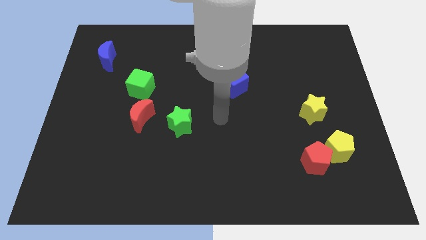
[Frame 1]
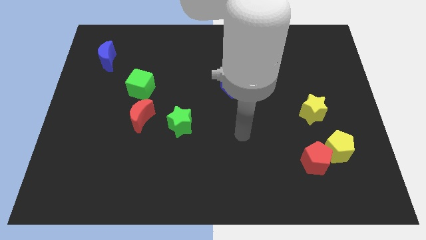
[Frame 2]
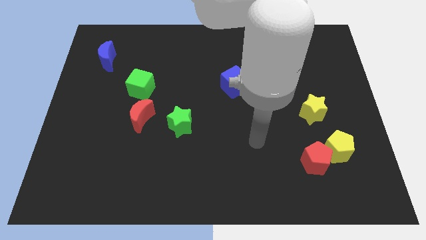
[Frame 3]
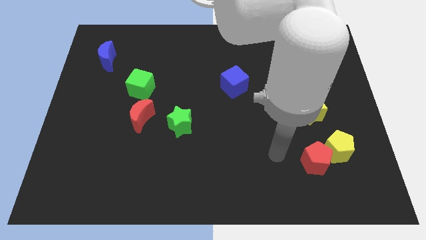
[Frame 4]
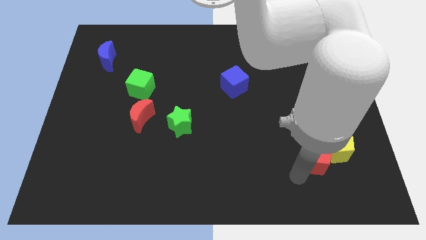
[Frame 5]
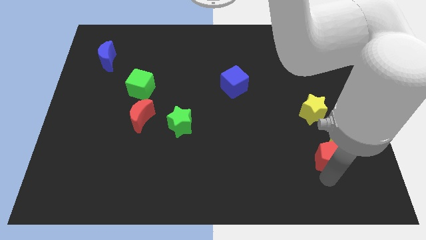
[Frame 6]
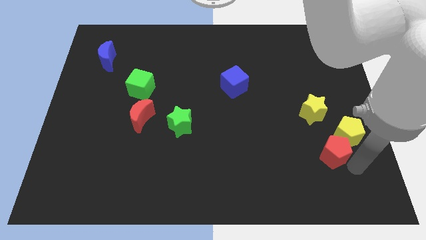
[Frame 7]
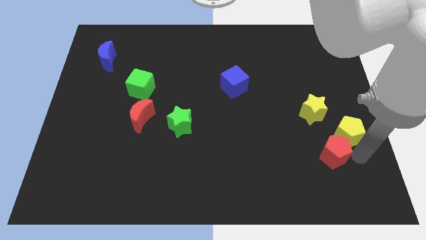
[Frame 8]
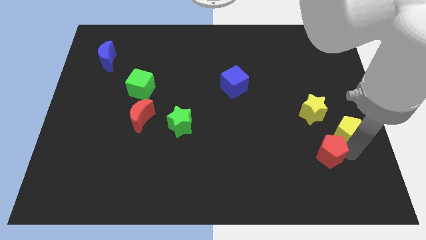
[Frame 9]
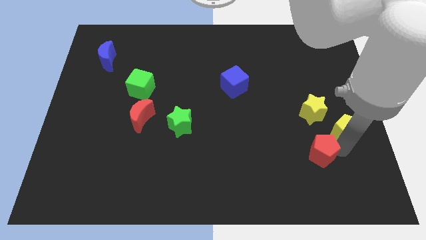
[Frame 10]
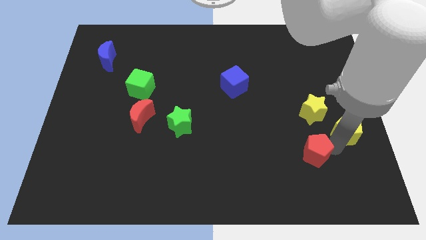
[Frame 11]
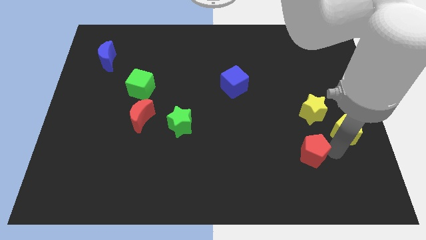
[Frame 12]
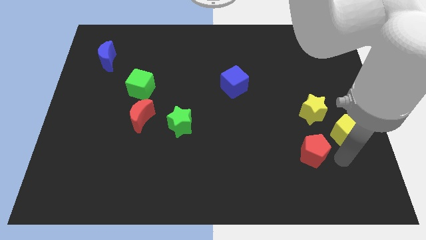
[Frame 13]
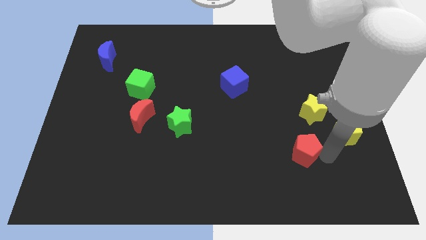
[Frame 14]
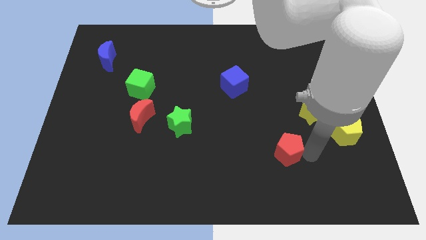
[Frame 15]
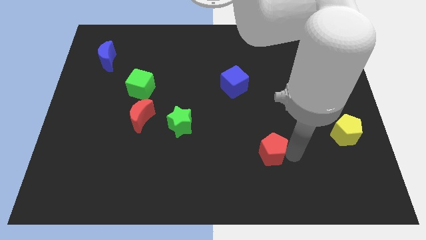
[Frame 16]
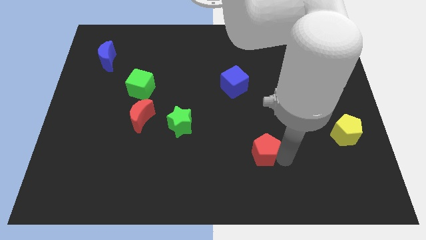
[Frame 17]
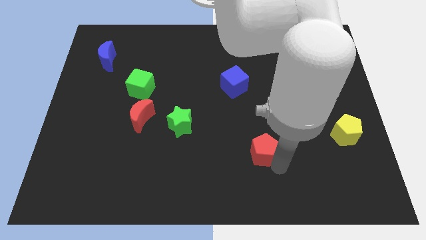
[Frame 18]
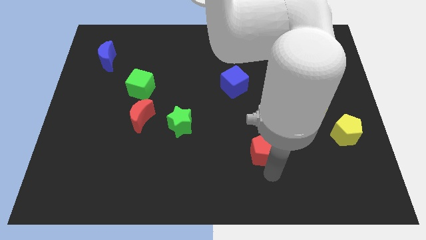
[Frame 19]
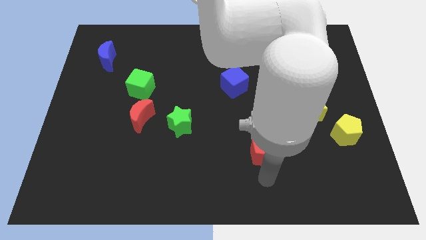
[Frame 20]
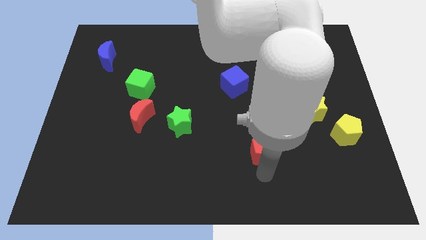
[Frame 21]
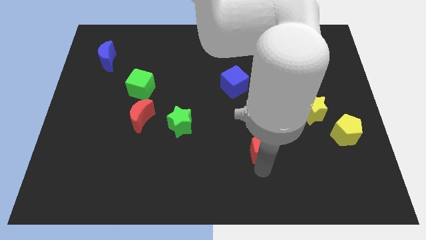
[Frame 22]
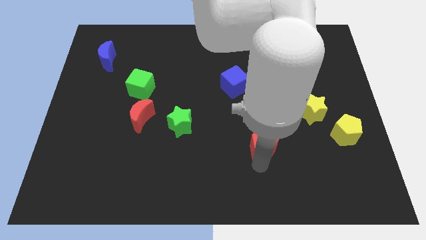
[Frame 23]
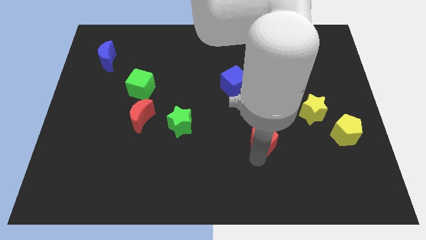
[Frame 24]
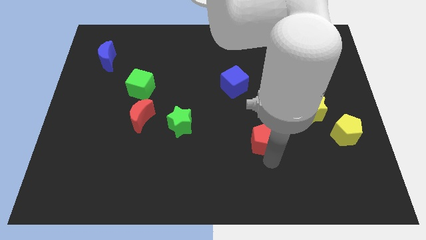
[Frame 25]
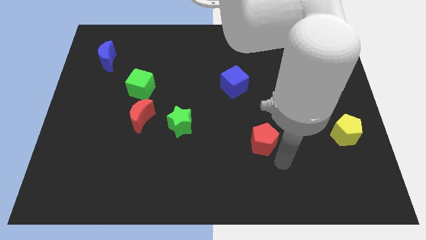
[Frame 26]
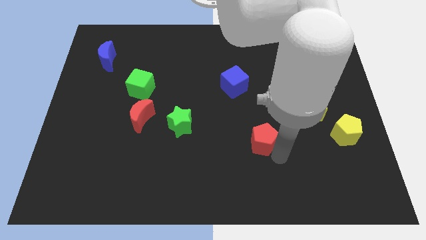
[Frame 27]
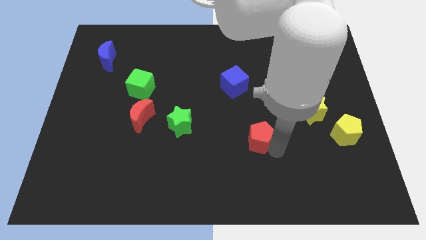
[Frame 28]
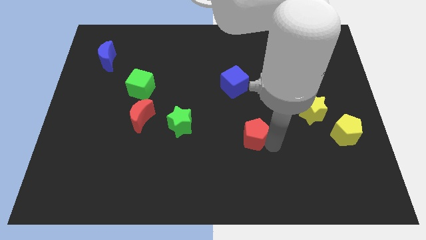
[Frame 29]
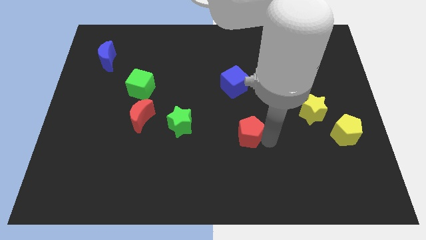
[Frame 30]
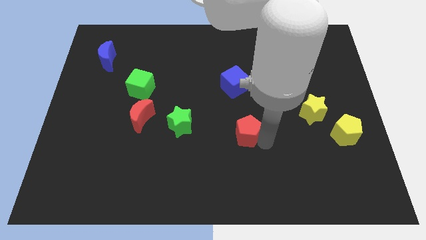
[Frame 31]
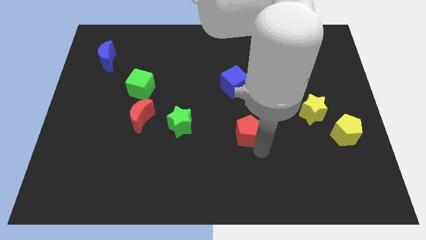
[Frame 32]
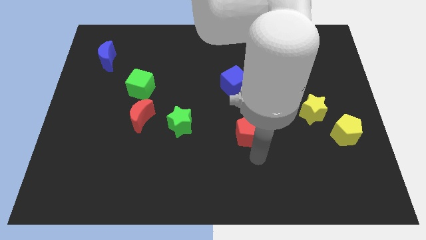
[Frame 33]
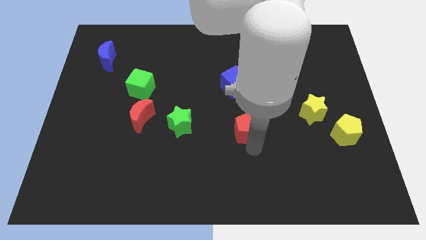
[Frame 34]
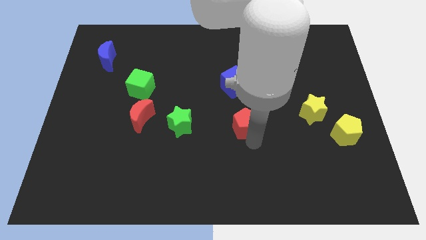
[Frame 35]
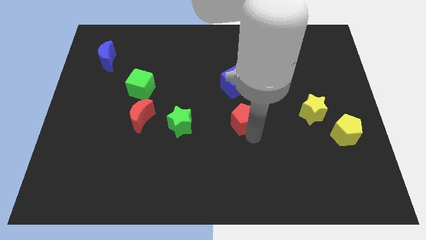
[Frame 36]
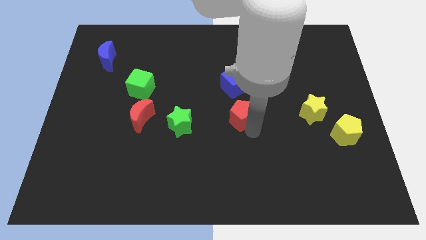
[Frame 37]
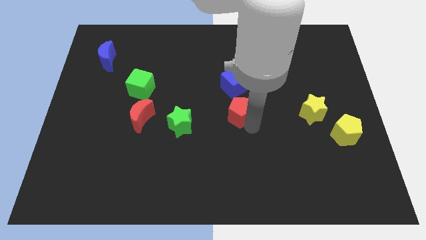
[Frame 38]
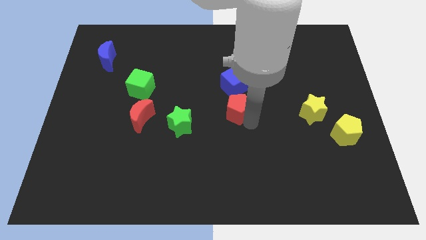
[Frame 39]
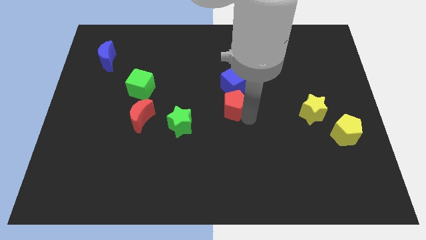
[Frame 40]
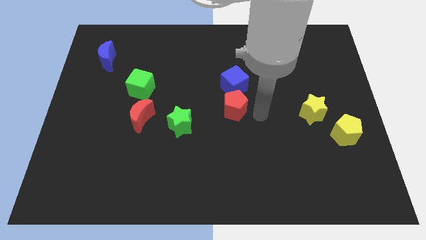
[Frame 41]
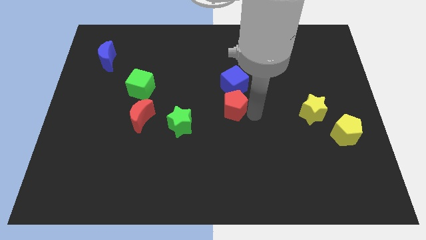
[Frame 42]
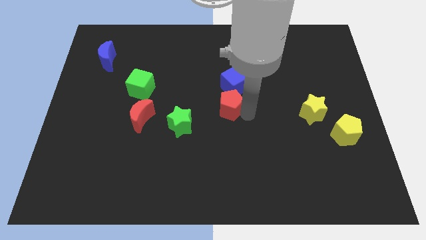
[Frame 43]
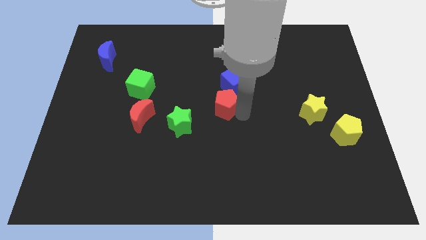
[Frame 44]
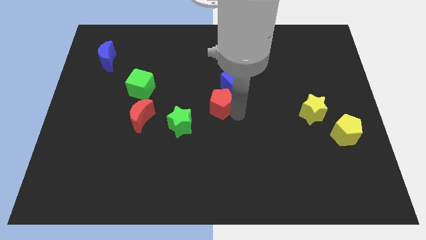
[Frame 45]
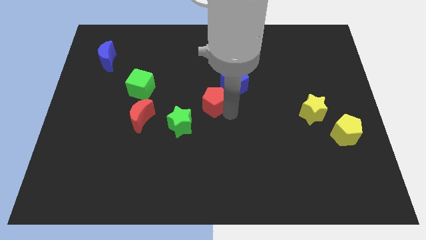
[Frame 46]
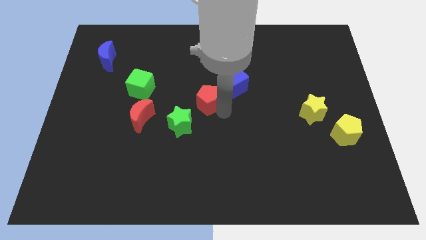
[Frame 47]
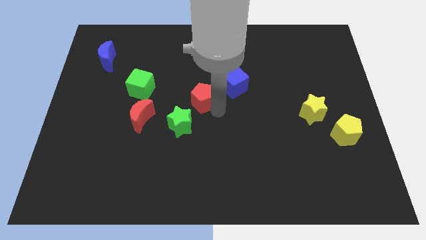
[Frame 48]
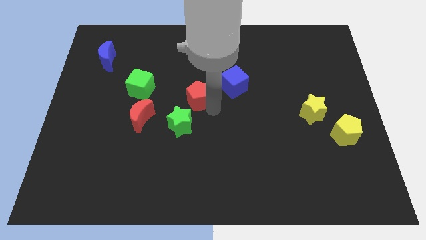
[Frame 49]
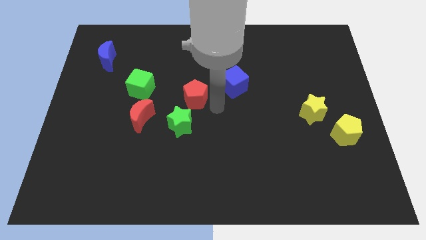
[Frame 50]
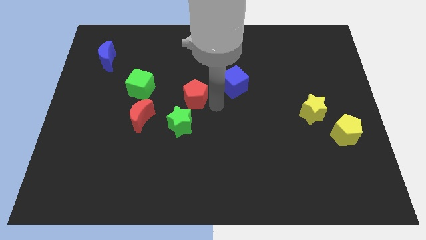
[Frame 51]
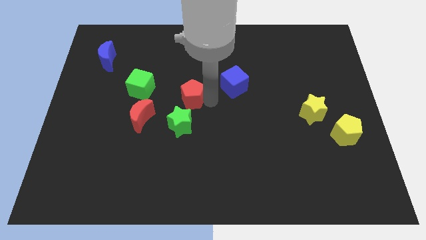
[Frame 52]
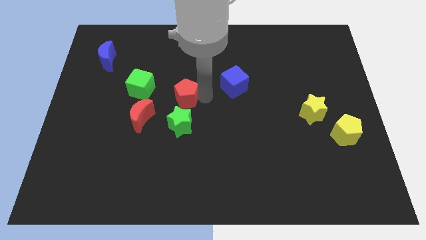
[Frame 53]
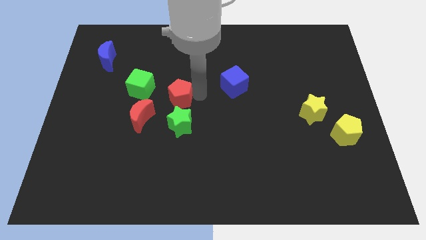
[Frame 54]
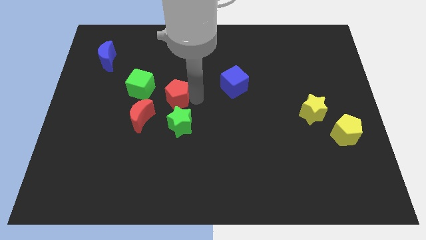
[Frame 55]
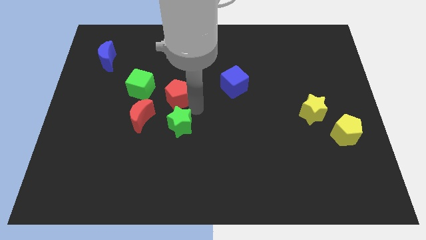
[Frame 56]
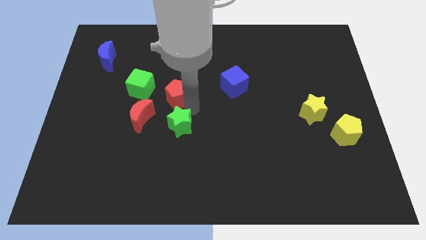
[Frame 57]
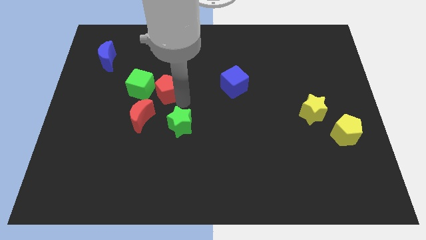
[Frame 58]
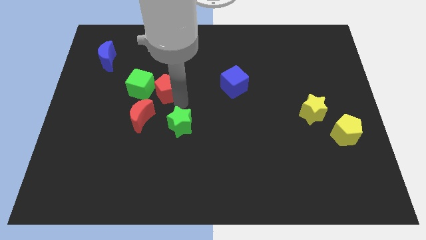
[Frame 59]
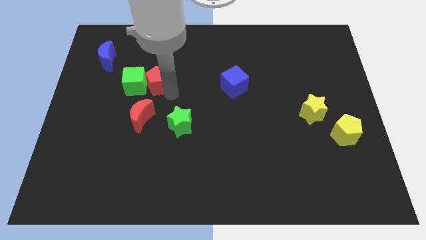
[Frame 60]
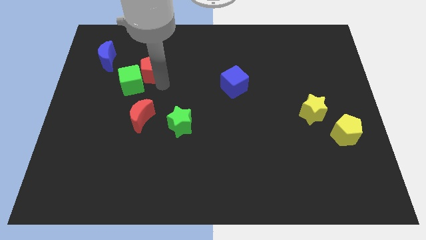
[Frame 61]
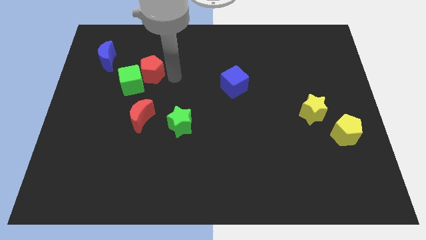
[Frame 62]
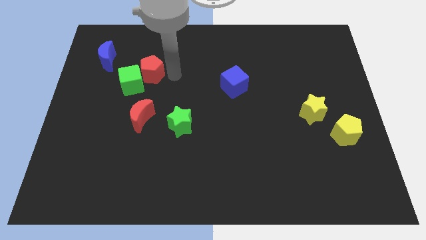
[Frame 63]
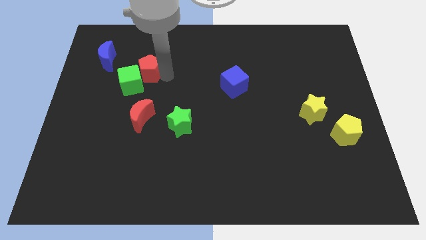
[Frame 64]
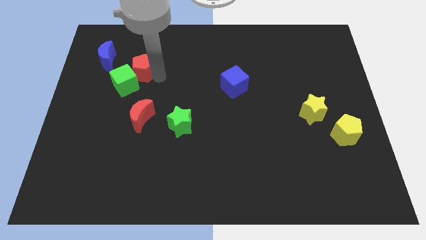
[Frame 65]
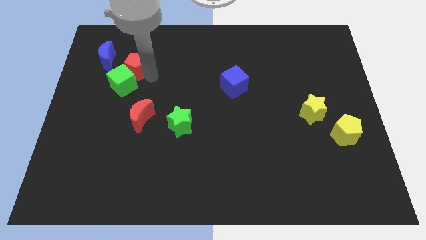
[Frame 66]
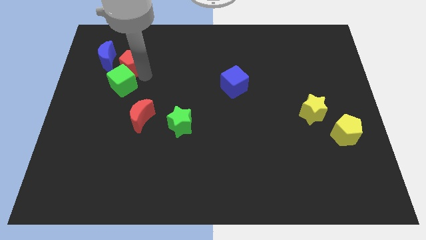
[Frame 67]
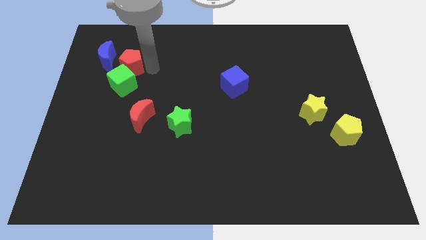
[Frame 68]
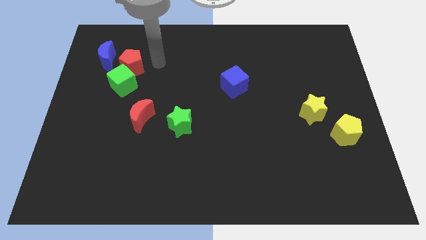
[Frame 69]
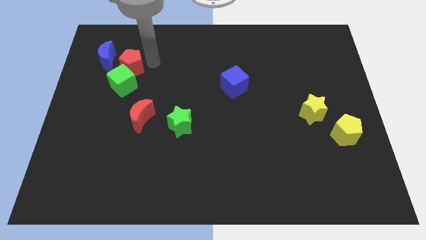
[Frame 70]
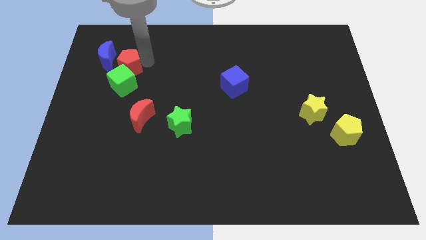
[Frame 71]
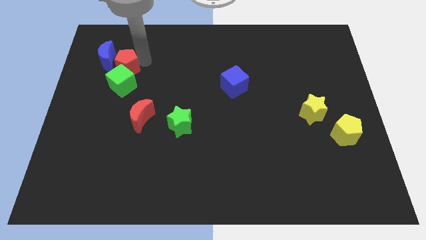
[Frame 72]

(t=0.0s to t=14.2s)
push the red pentagon to the top left side of the green cube
